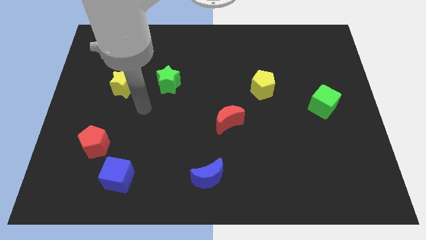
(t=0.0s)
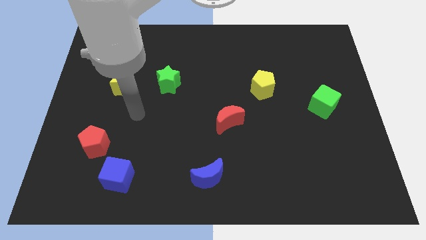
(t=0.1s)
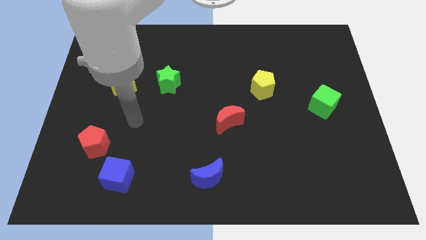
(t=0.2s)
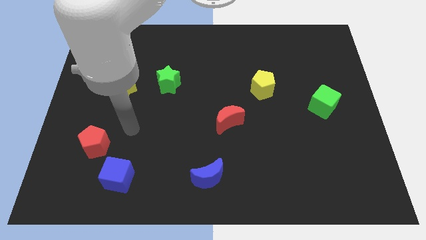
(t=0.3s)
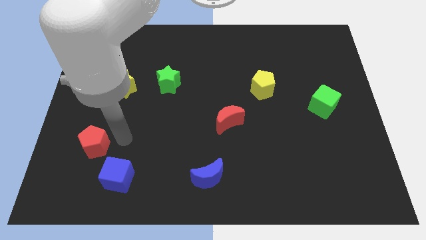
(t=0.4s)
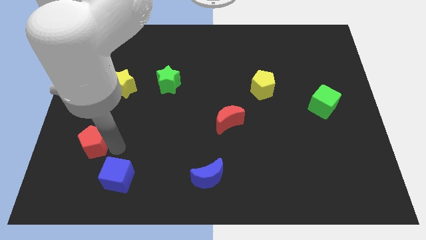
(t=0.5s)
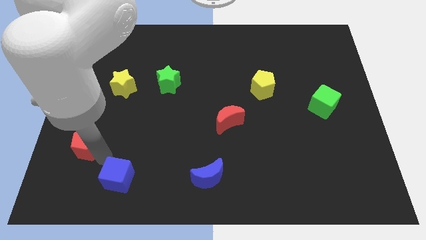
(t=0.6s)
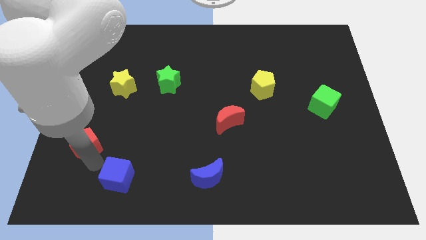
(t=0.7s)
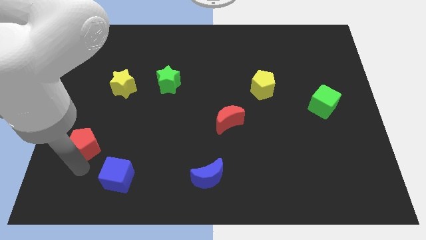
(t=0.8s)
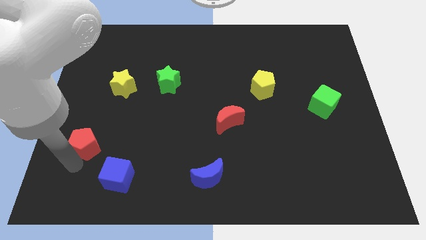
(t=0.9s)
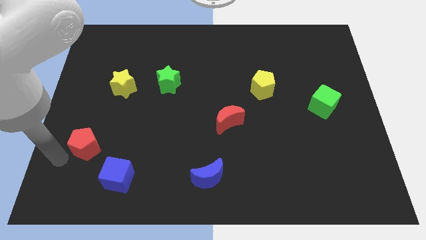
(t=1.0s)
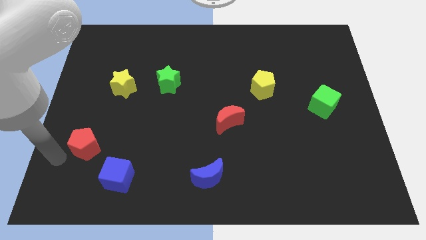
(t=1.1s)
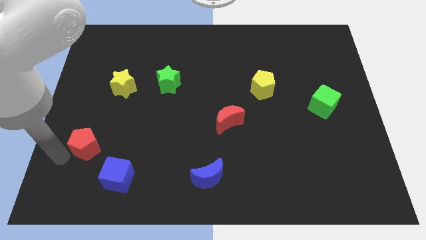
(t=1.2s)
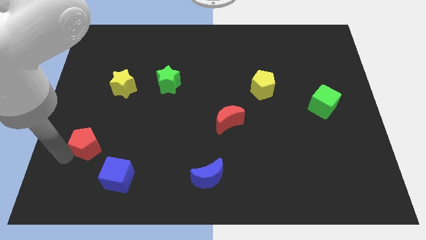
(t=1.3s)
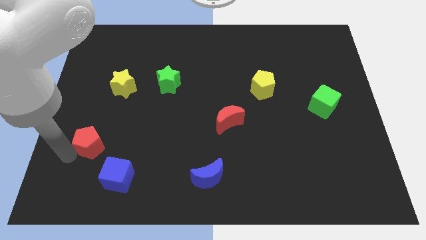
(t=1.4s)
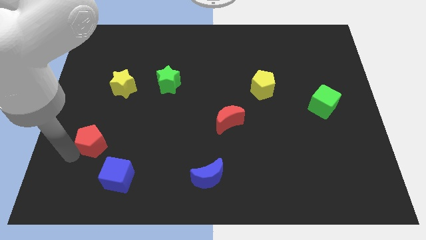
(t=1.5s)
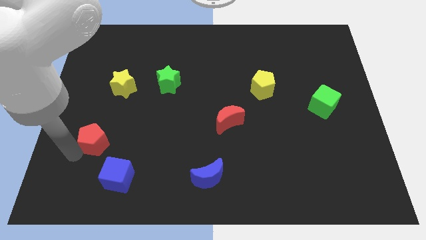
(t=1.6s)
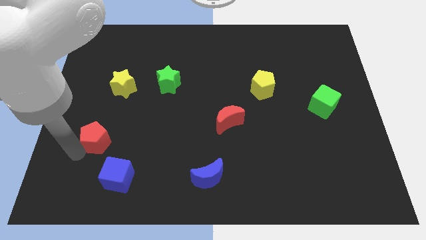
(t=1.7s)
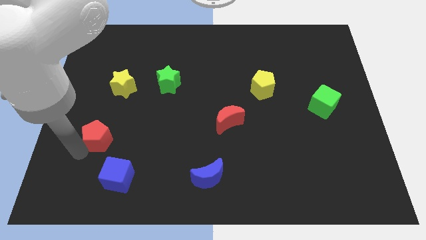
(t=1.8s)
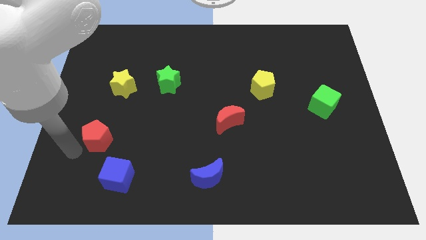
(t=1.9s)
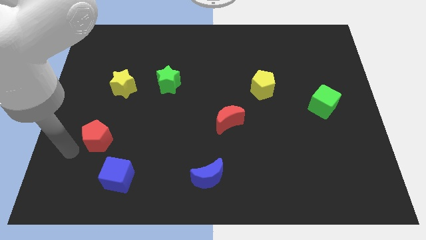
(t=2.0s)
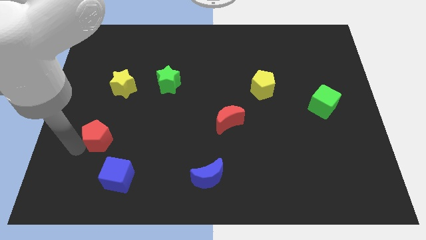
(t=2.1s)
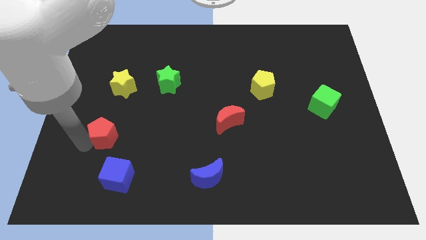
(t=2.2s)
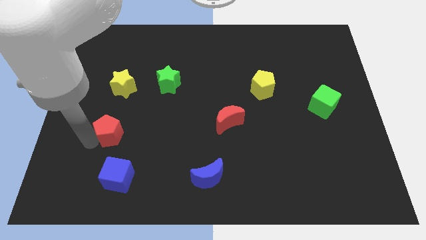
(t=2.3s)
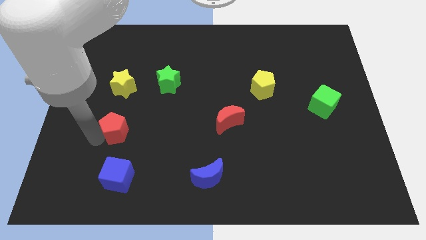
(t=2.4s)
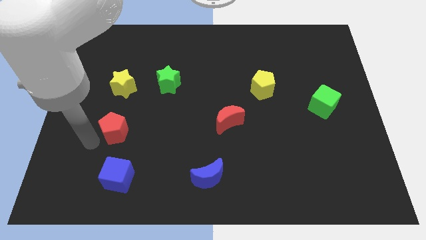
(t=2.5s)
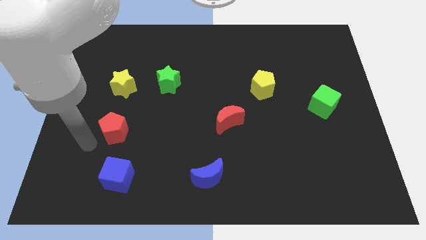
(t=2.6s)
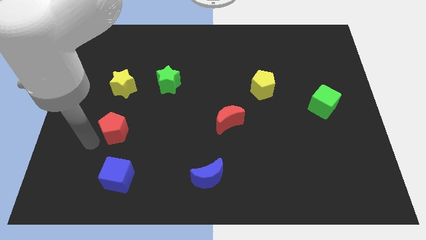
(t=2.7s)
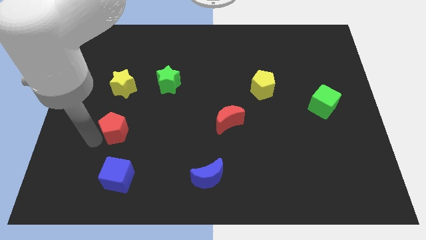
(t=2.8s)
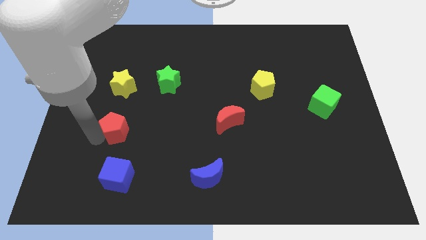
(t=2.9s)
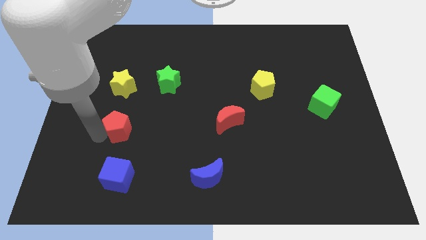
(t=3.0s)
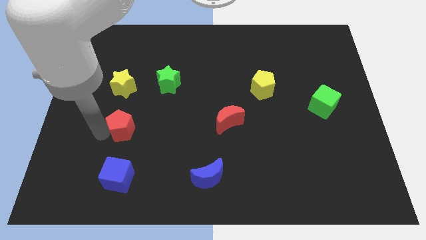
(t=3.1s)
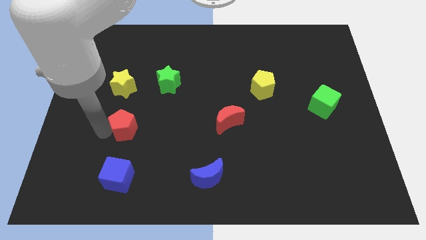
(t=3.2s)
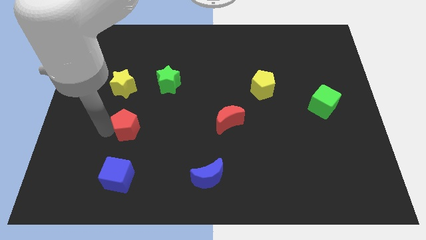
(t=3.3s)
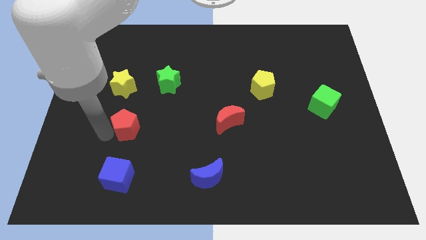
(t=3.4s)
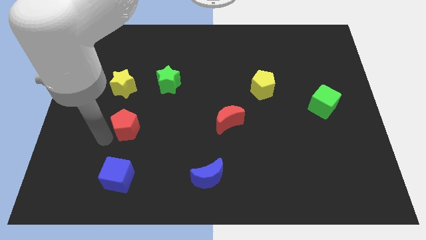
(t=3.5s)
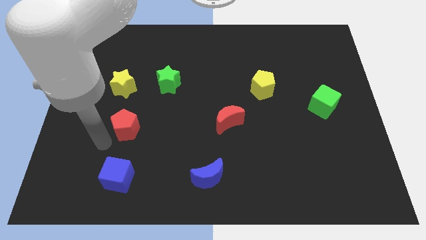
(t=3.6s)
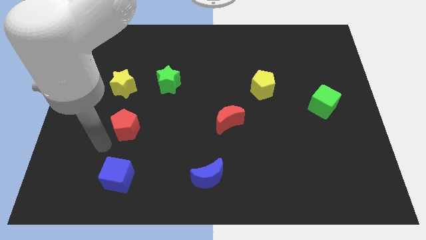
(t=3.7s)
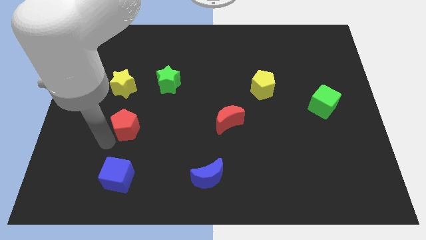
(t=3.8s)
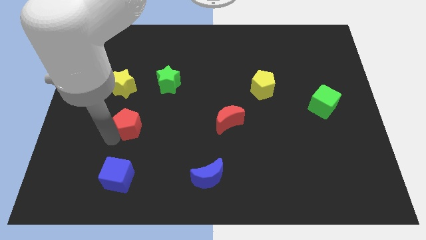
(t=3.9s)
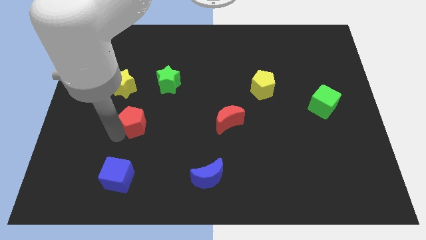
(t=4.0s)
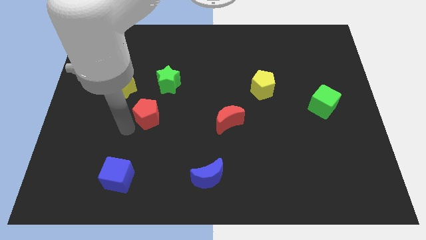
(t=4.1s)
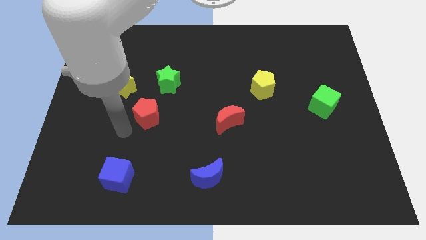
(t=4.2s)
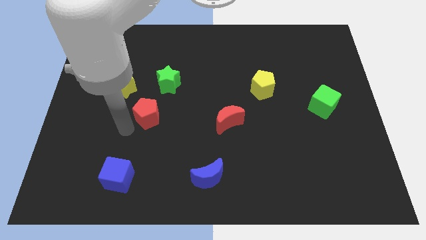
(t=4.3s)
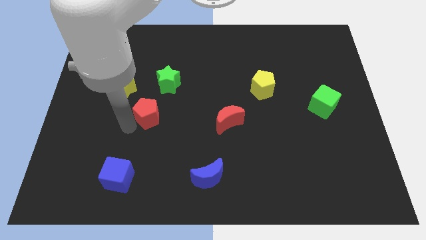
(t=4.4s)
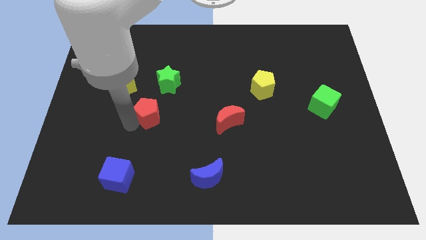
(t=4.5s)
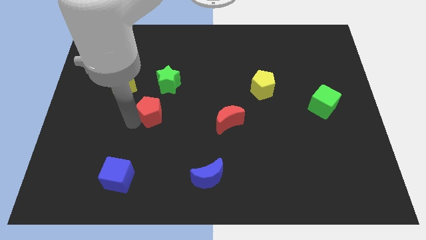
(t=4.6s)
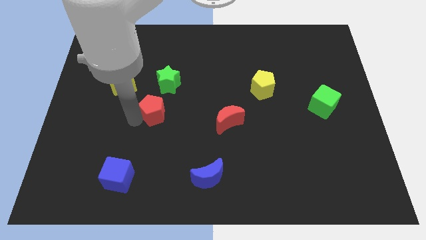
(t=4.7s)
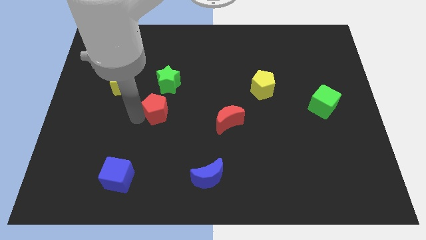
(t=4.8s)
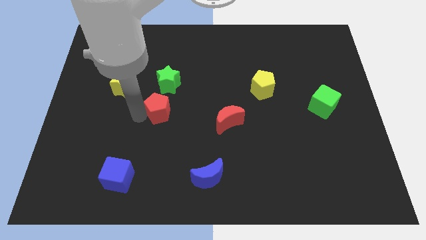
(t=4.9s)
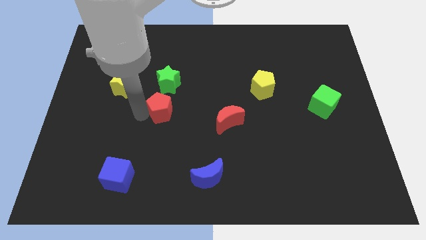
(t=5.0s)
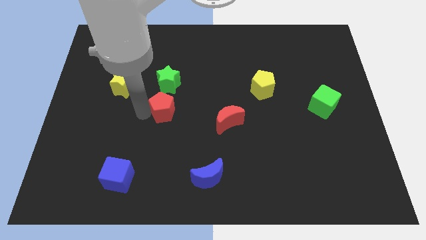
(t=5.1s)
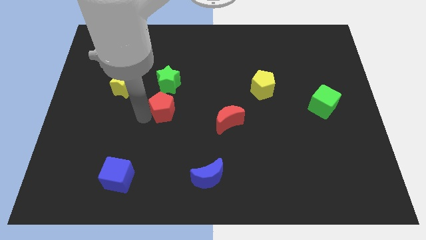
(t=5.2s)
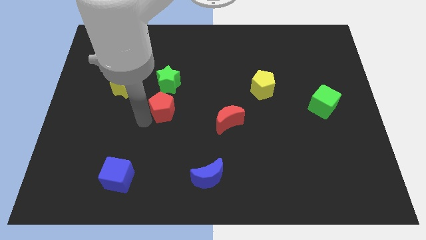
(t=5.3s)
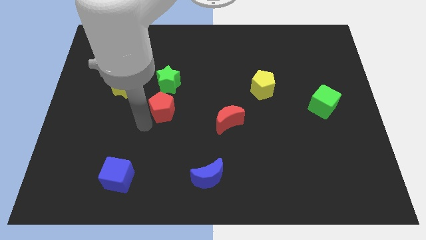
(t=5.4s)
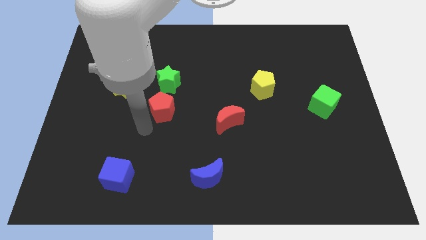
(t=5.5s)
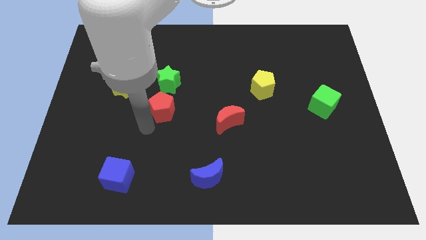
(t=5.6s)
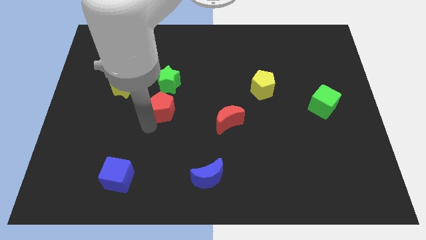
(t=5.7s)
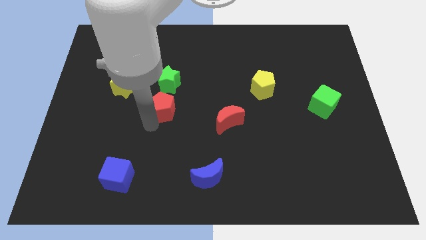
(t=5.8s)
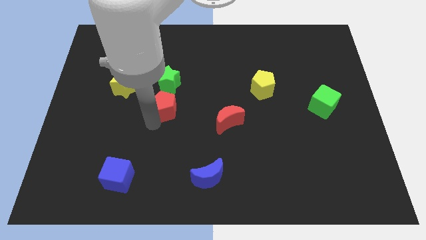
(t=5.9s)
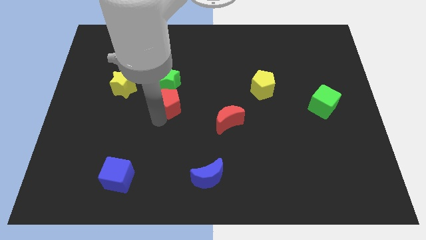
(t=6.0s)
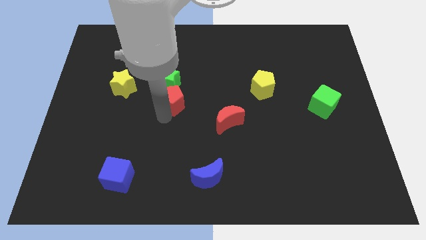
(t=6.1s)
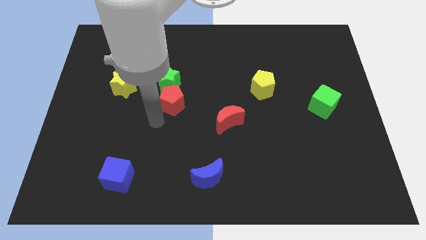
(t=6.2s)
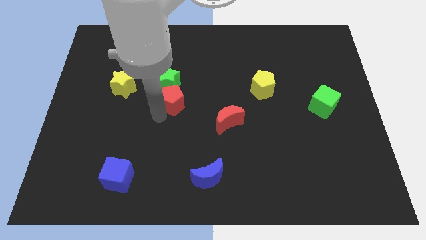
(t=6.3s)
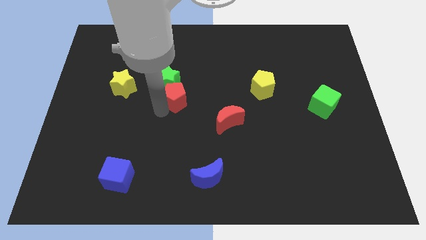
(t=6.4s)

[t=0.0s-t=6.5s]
push the red pentagon up and right

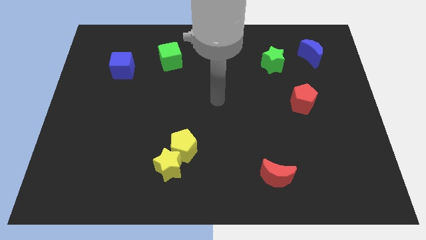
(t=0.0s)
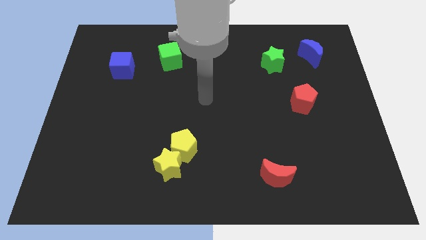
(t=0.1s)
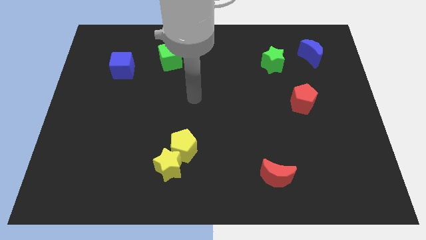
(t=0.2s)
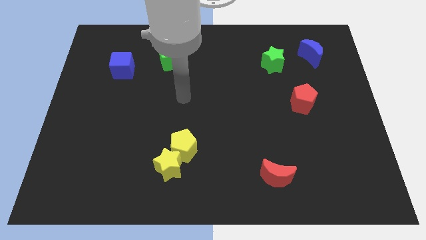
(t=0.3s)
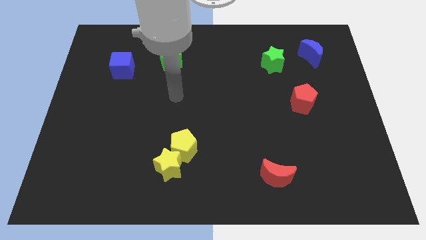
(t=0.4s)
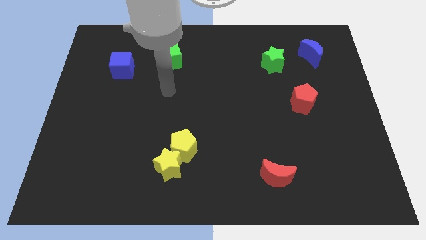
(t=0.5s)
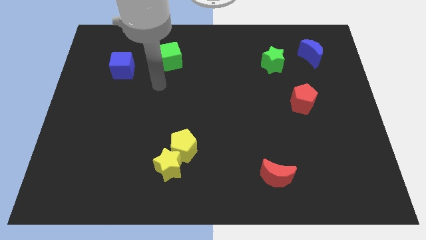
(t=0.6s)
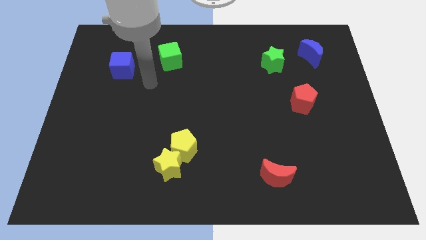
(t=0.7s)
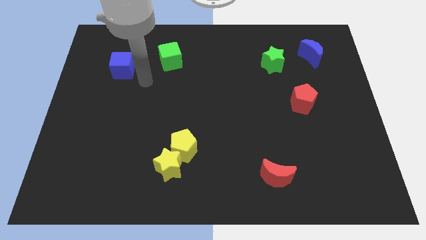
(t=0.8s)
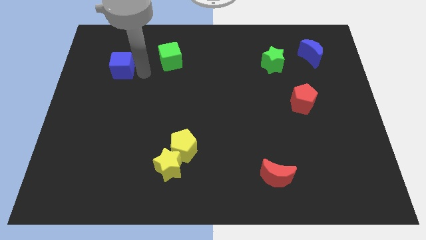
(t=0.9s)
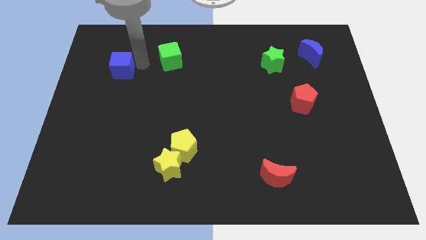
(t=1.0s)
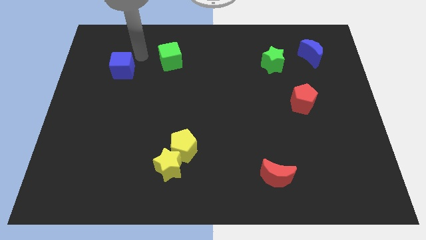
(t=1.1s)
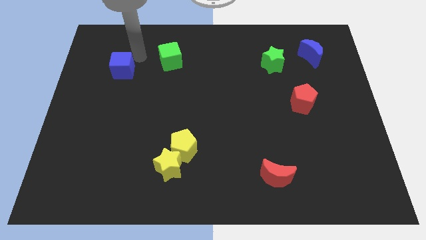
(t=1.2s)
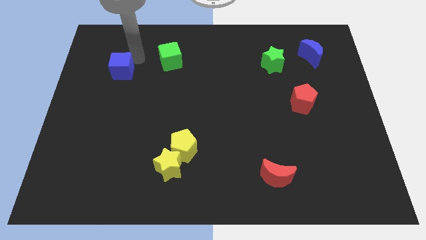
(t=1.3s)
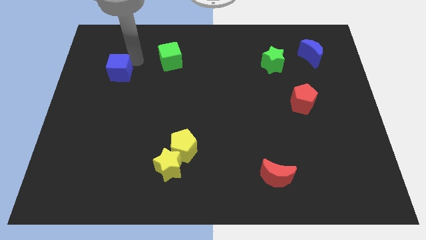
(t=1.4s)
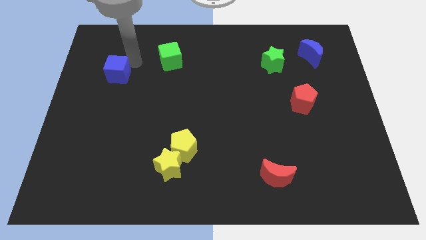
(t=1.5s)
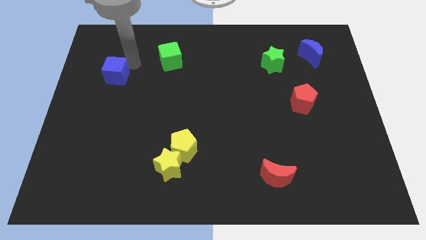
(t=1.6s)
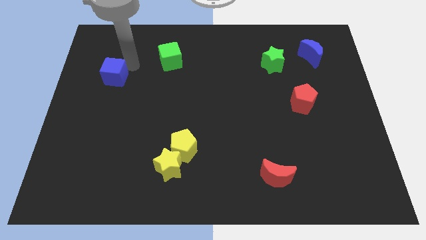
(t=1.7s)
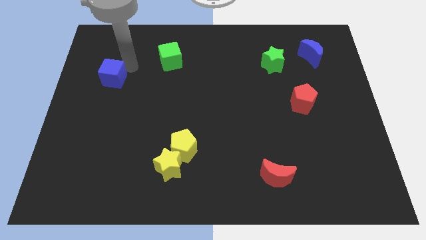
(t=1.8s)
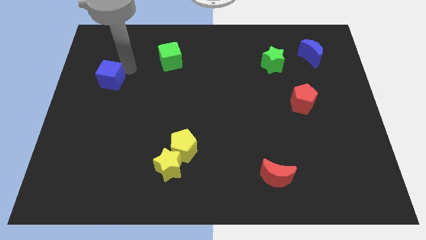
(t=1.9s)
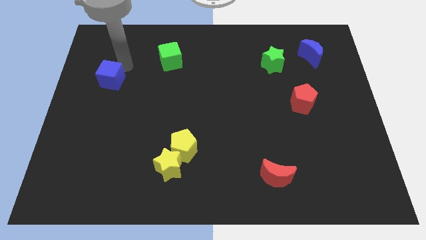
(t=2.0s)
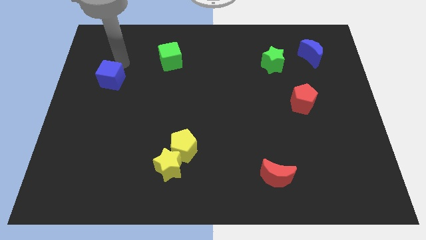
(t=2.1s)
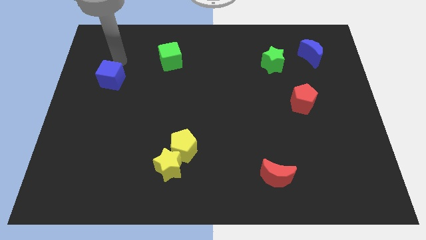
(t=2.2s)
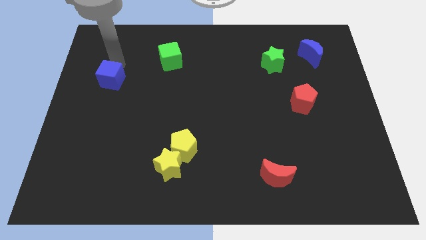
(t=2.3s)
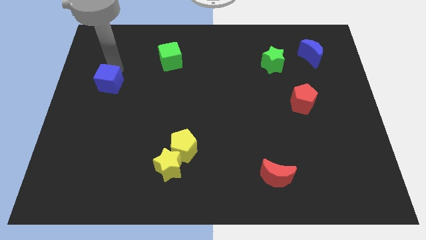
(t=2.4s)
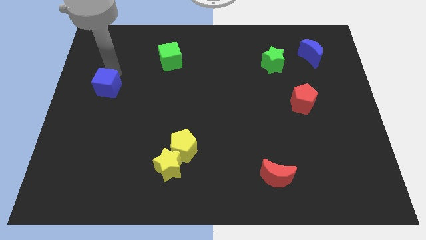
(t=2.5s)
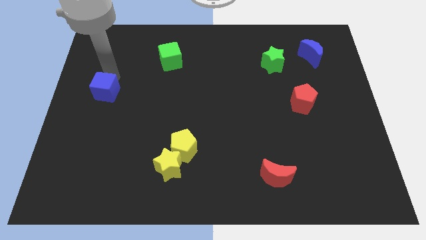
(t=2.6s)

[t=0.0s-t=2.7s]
slightly move the blue cube downwards
